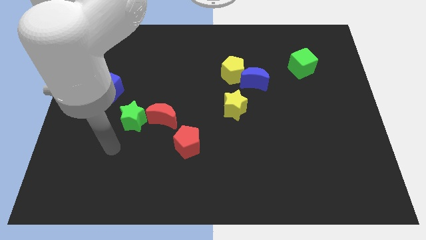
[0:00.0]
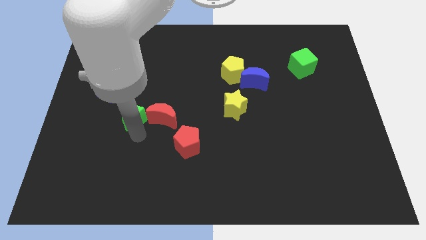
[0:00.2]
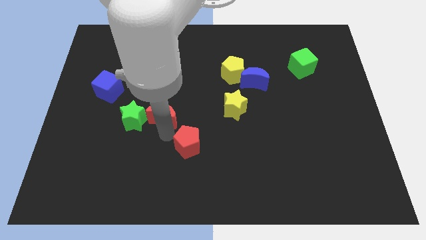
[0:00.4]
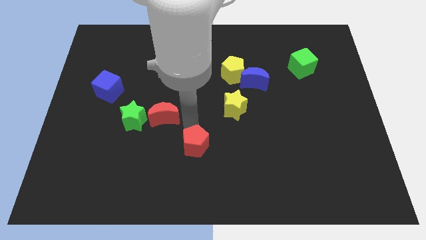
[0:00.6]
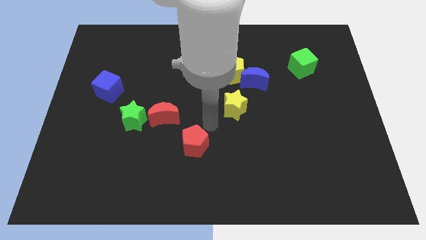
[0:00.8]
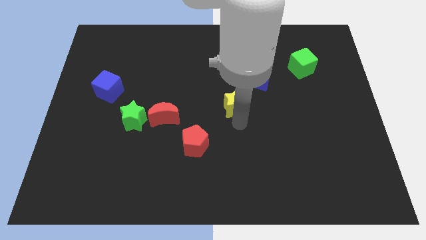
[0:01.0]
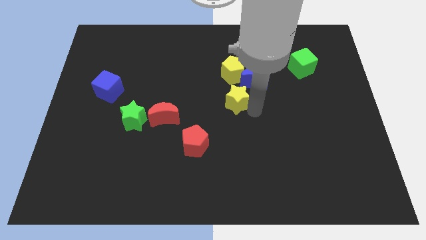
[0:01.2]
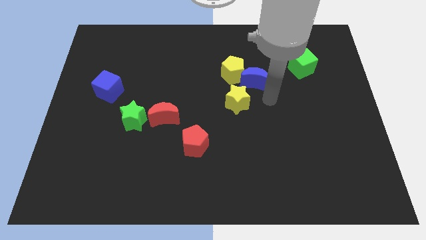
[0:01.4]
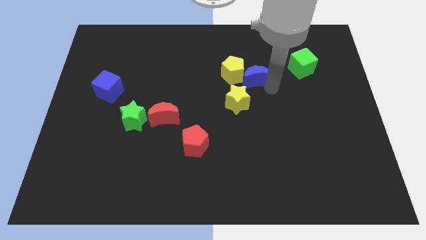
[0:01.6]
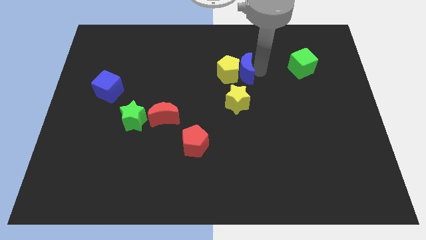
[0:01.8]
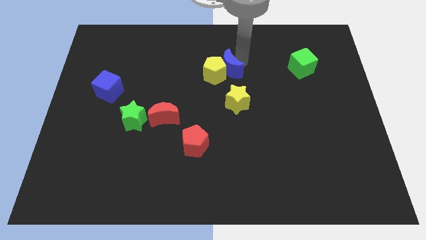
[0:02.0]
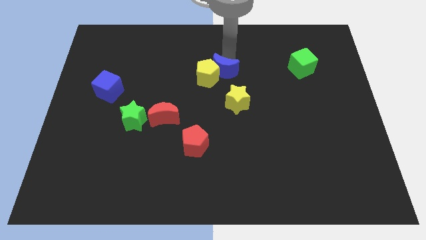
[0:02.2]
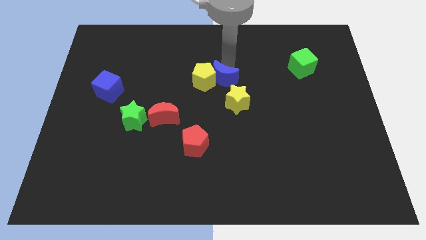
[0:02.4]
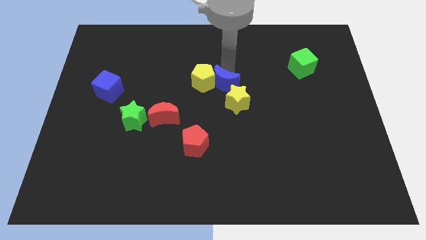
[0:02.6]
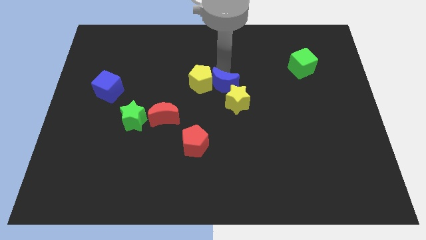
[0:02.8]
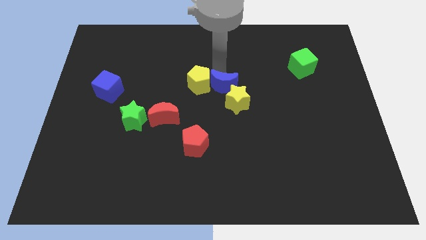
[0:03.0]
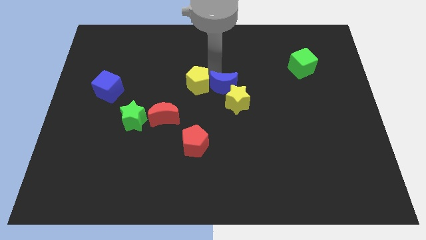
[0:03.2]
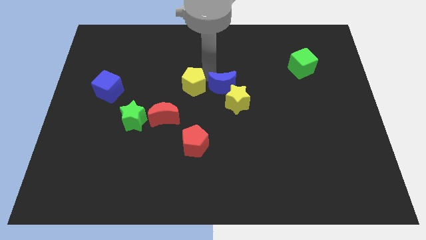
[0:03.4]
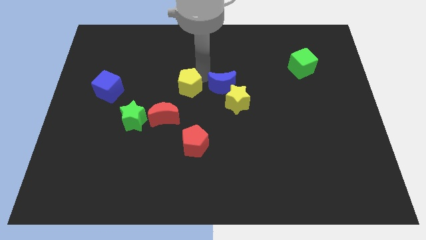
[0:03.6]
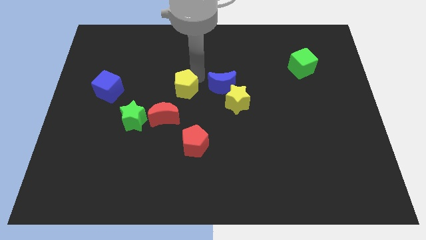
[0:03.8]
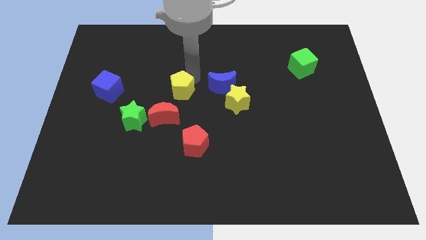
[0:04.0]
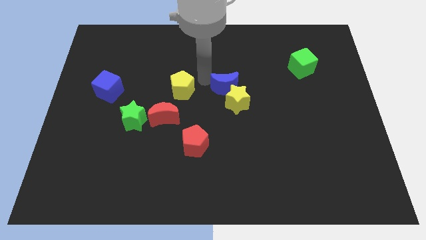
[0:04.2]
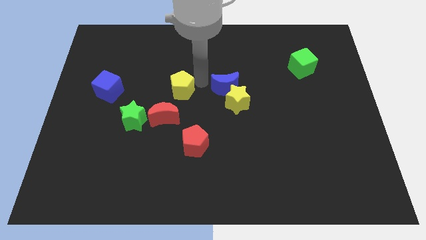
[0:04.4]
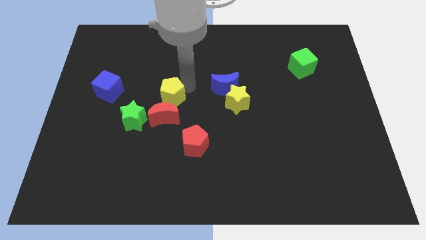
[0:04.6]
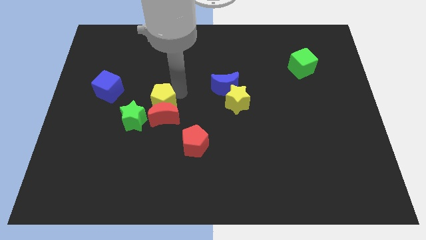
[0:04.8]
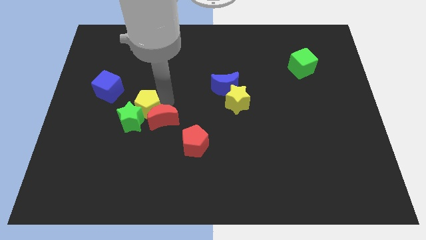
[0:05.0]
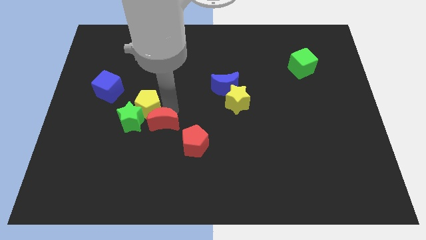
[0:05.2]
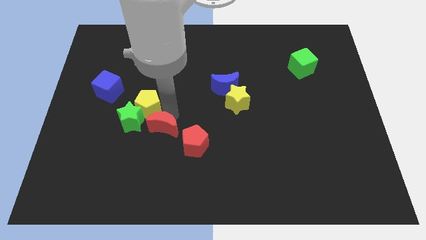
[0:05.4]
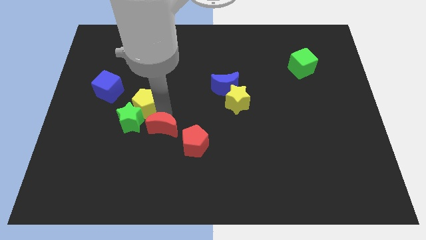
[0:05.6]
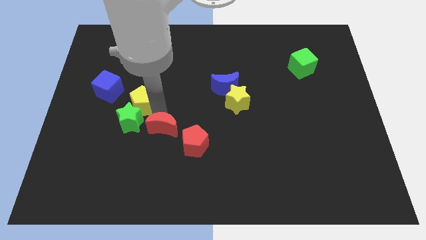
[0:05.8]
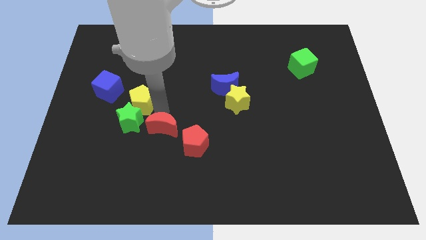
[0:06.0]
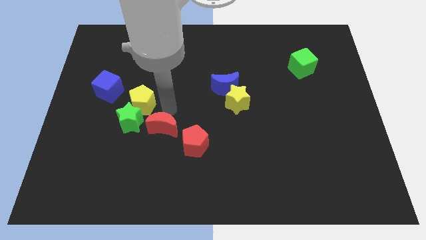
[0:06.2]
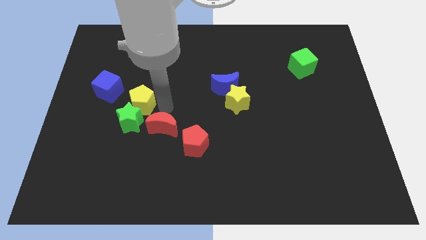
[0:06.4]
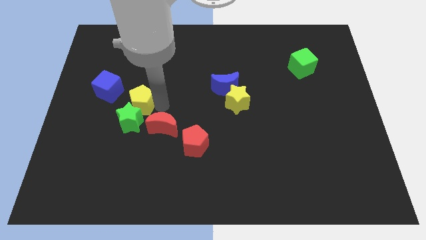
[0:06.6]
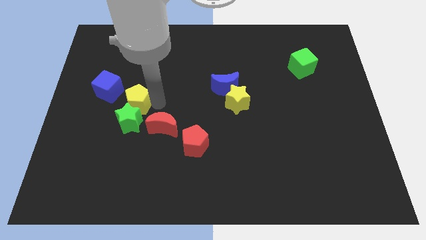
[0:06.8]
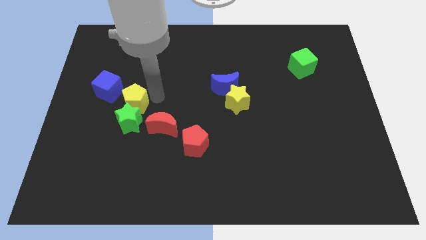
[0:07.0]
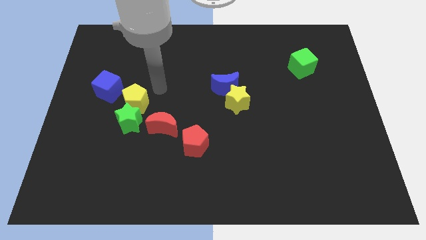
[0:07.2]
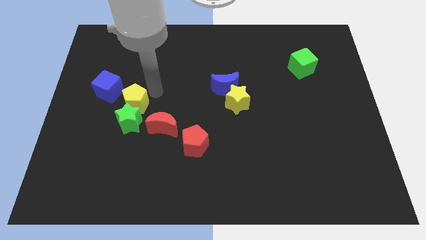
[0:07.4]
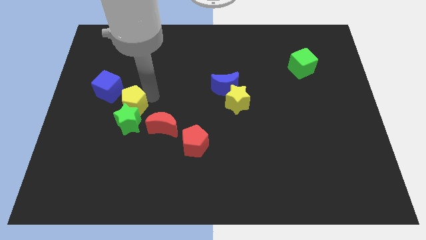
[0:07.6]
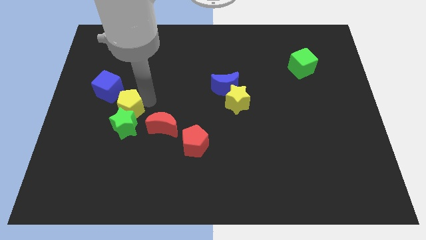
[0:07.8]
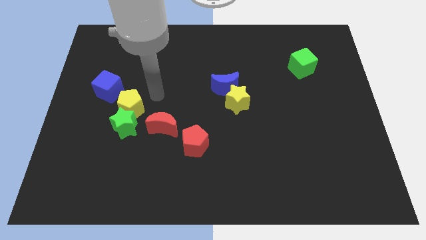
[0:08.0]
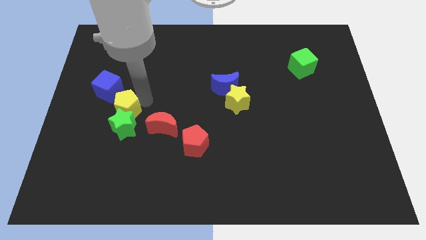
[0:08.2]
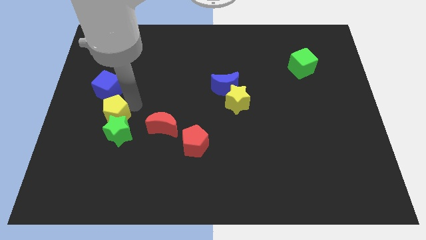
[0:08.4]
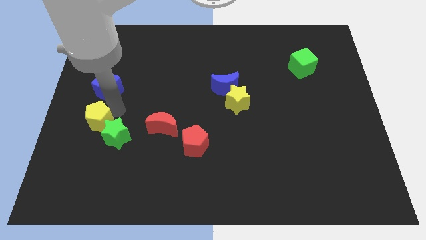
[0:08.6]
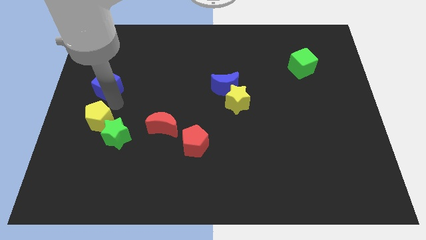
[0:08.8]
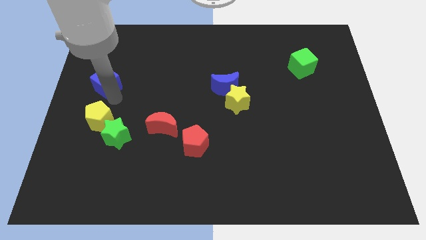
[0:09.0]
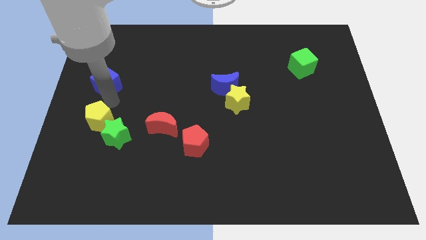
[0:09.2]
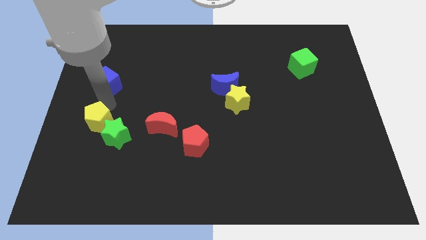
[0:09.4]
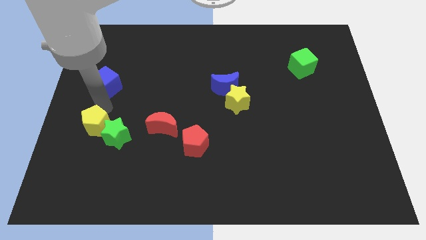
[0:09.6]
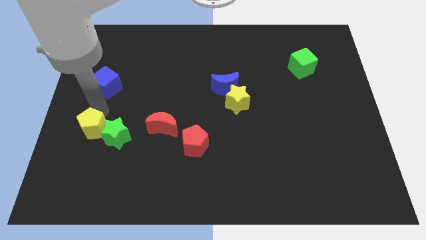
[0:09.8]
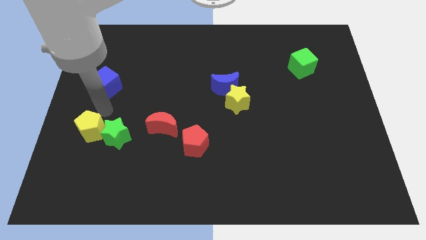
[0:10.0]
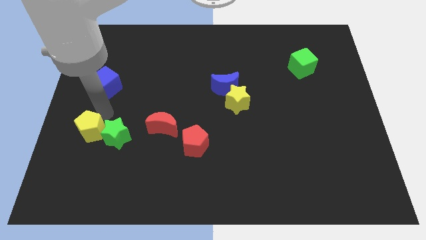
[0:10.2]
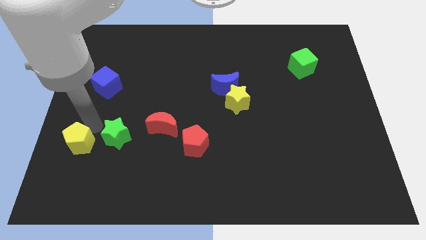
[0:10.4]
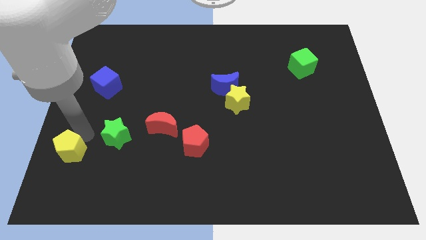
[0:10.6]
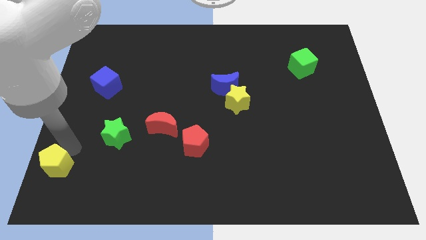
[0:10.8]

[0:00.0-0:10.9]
put the yellow pentagon to the bottom left
